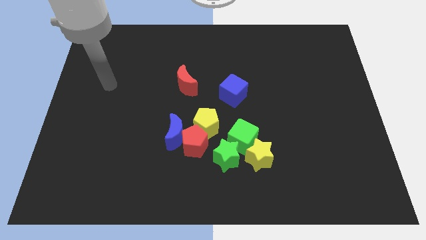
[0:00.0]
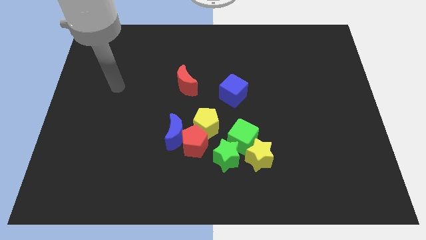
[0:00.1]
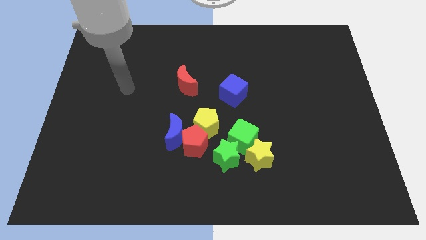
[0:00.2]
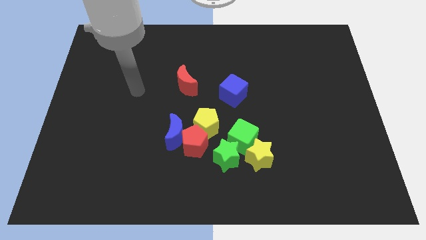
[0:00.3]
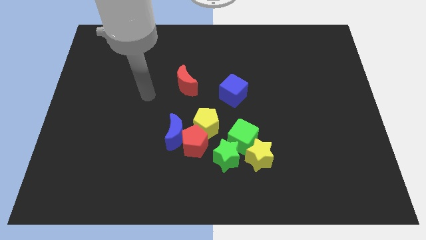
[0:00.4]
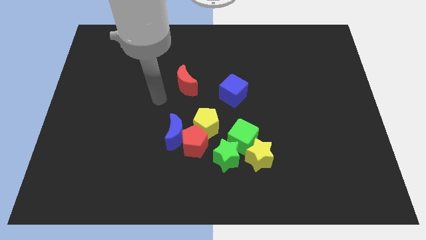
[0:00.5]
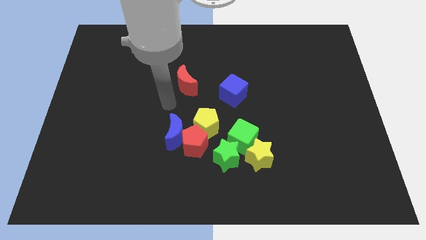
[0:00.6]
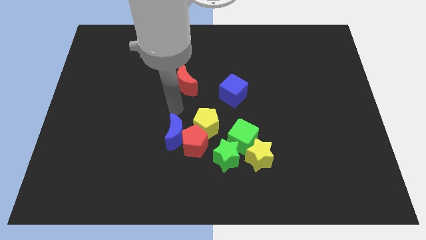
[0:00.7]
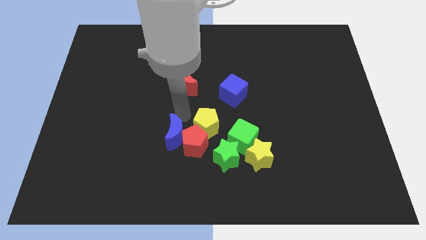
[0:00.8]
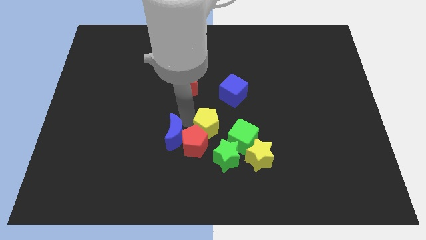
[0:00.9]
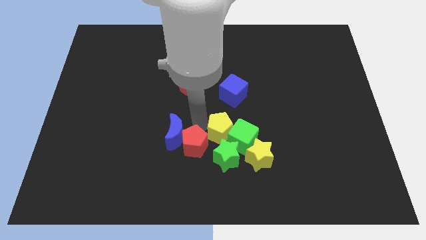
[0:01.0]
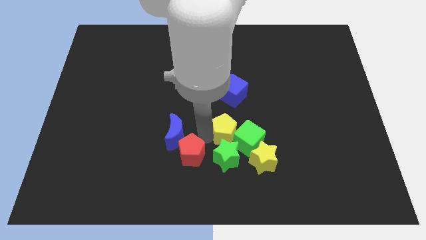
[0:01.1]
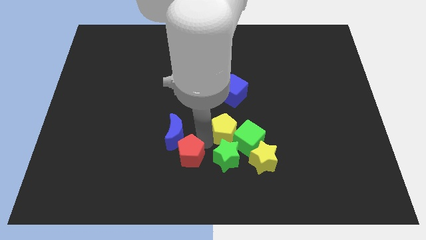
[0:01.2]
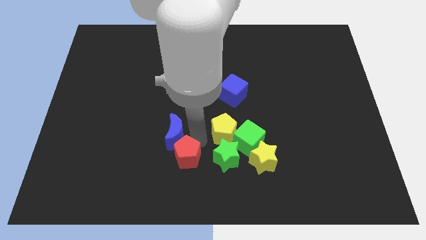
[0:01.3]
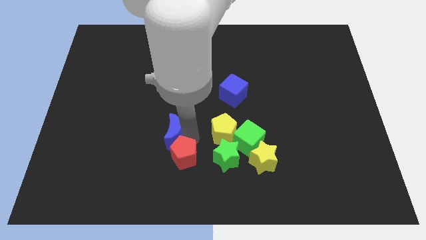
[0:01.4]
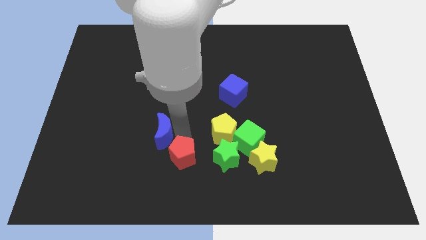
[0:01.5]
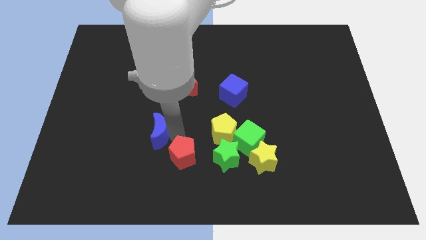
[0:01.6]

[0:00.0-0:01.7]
pull the blue moon apart from the red pentagon and yellow pentagon

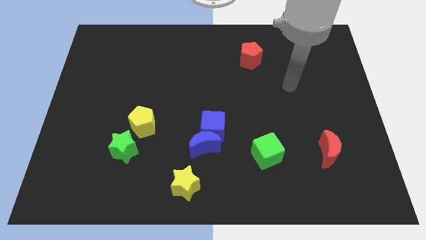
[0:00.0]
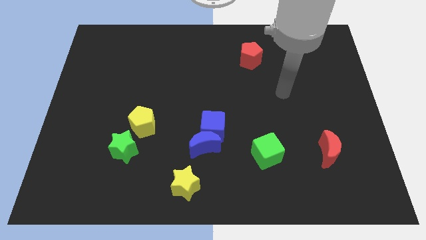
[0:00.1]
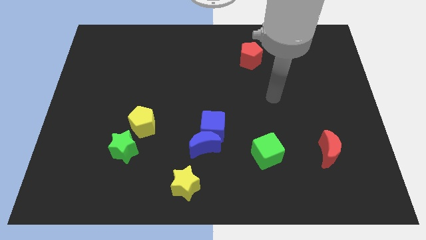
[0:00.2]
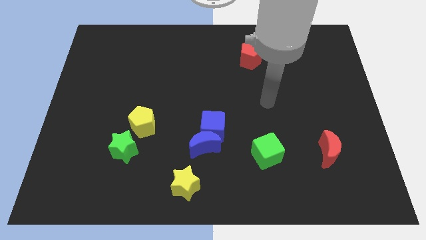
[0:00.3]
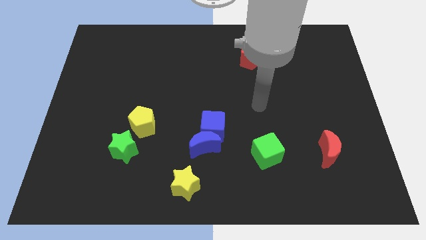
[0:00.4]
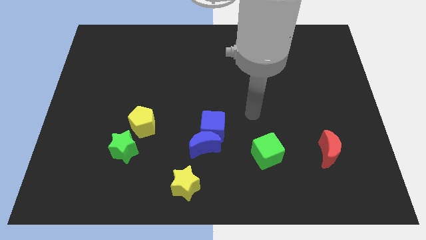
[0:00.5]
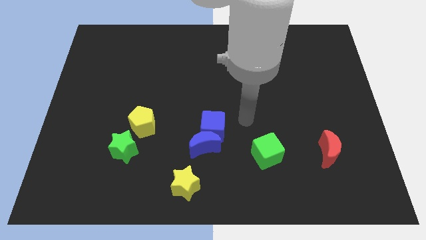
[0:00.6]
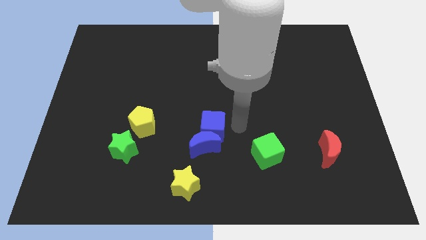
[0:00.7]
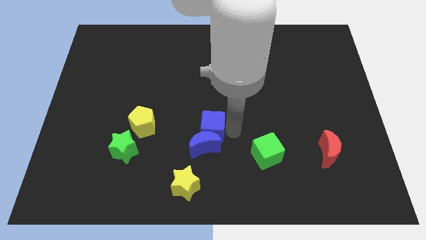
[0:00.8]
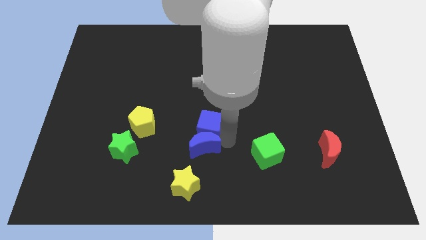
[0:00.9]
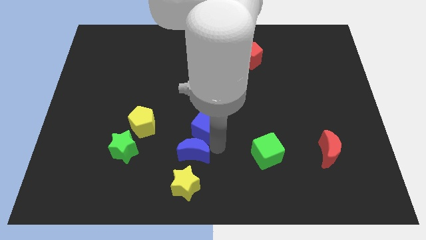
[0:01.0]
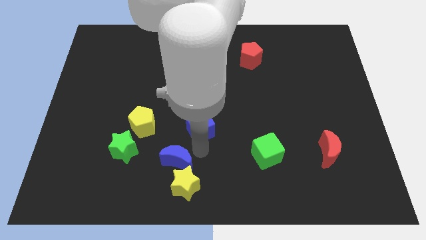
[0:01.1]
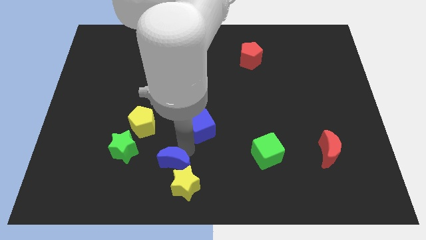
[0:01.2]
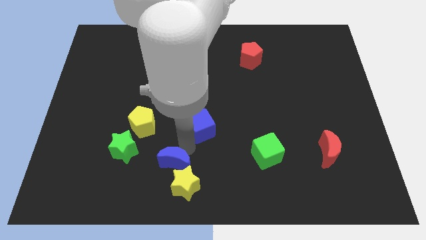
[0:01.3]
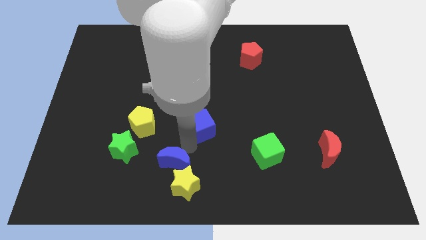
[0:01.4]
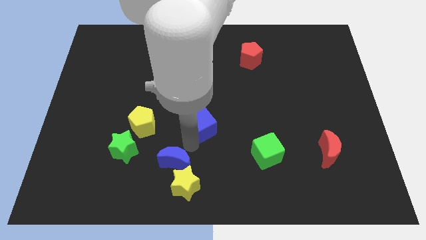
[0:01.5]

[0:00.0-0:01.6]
move the blue cube away from the blue moon

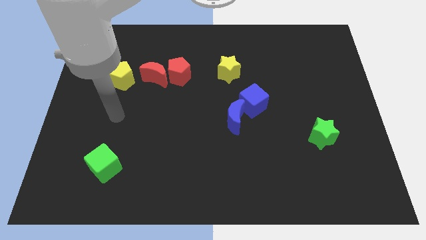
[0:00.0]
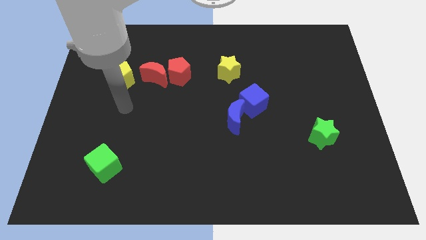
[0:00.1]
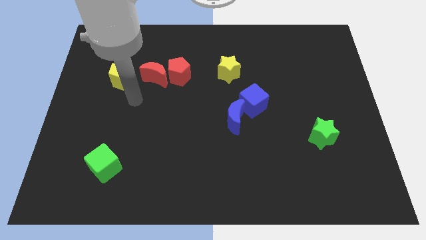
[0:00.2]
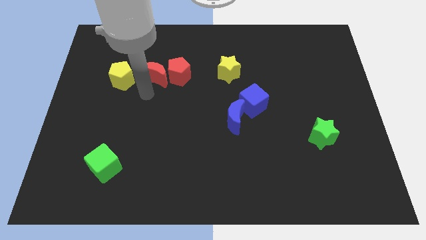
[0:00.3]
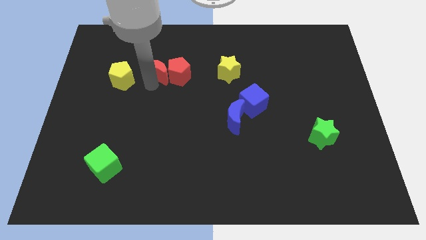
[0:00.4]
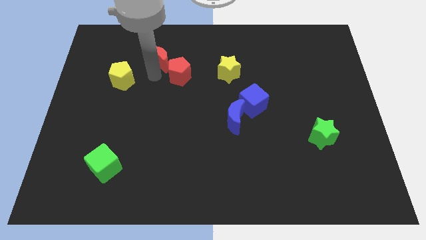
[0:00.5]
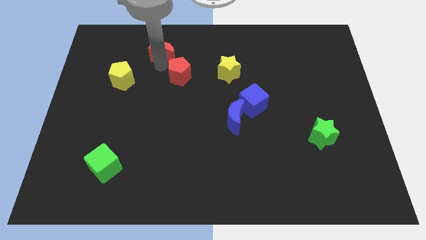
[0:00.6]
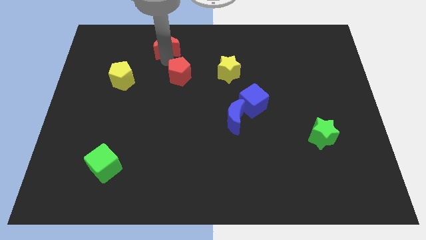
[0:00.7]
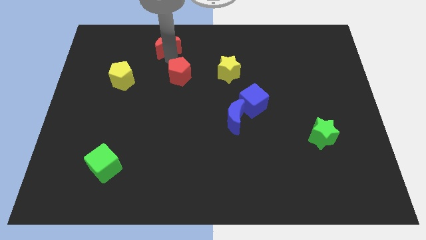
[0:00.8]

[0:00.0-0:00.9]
pull the red pentagon apart from the red moon

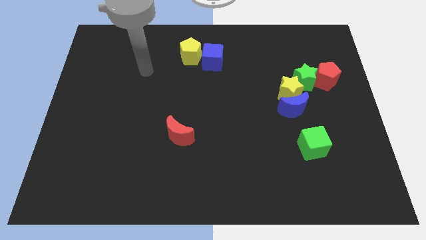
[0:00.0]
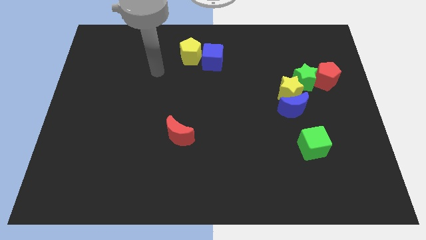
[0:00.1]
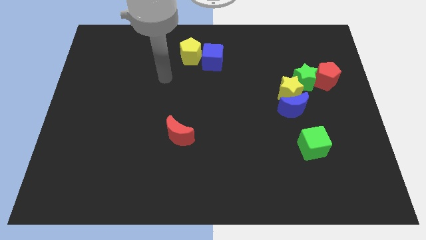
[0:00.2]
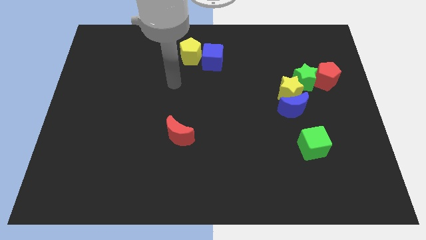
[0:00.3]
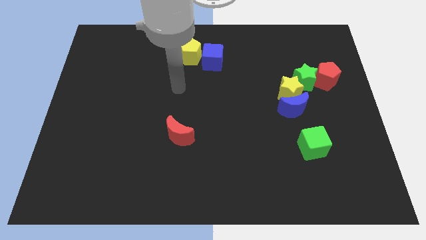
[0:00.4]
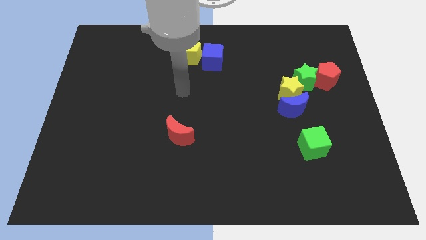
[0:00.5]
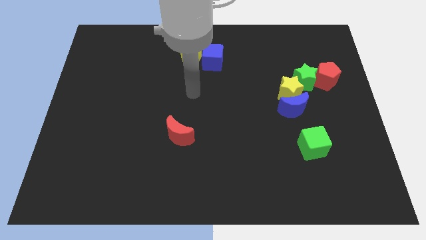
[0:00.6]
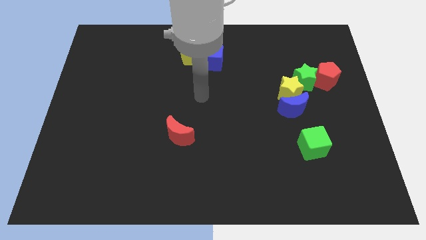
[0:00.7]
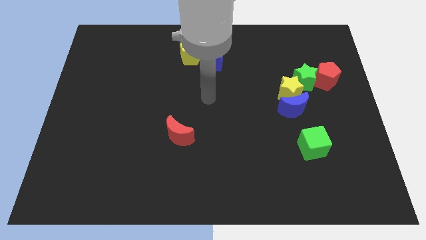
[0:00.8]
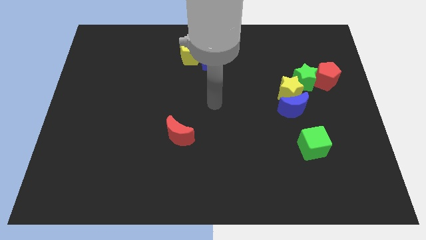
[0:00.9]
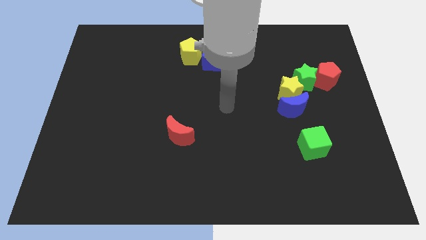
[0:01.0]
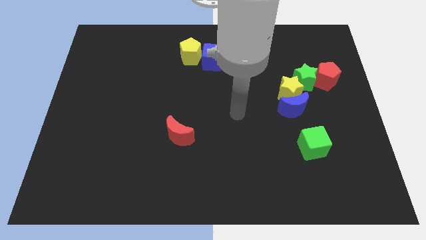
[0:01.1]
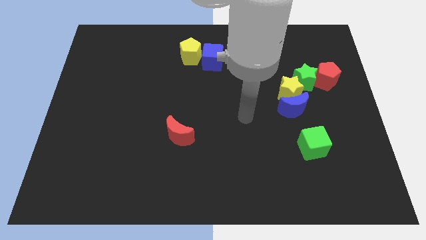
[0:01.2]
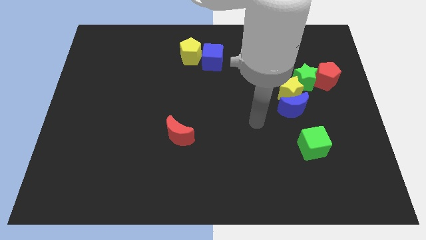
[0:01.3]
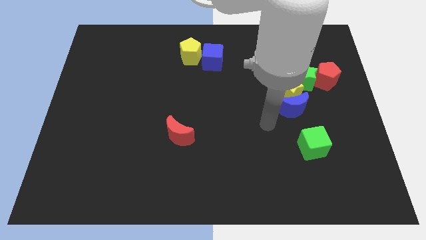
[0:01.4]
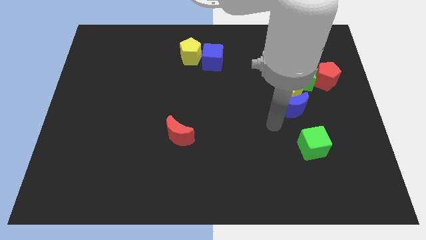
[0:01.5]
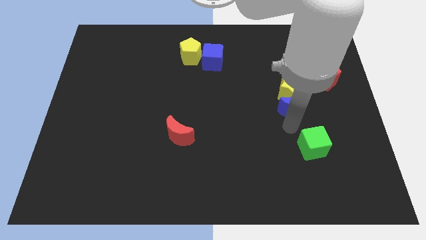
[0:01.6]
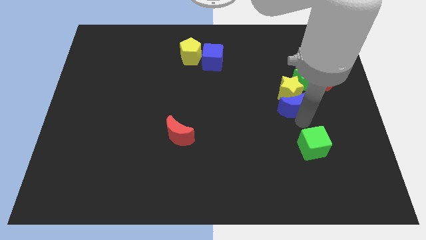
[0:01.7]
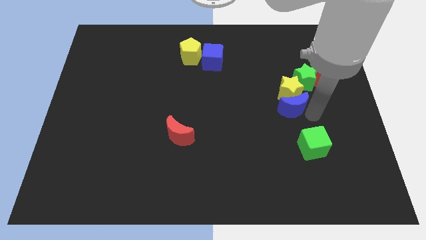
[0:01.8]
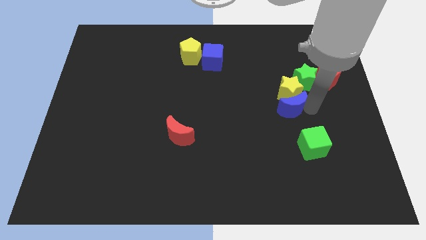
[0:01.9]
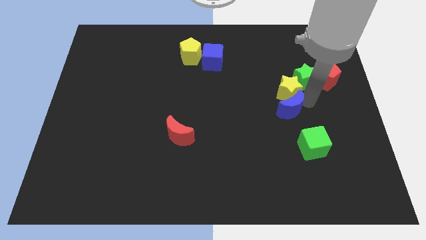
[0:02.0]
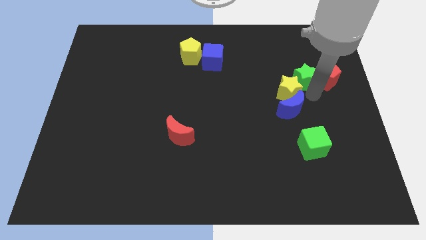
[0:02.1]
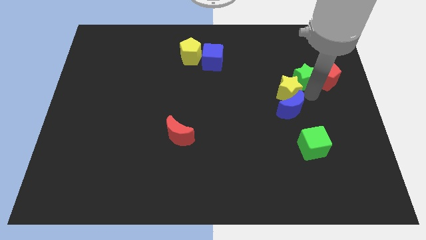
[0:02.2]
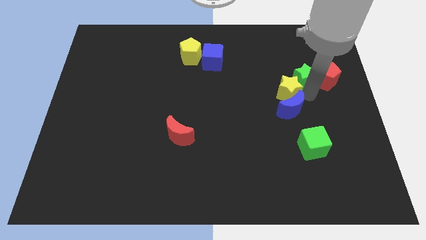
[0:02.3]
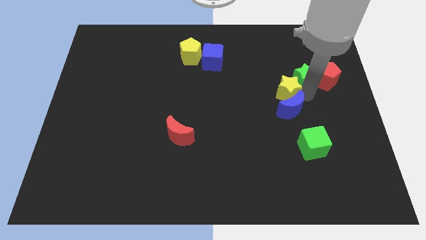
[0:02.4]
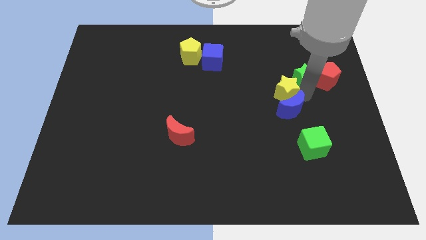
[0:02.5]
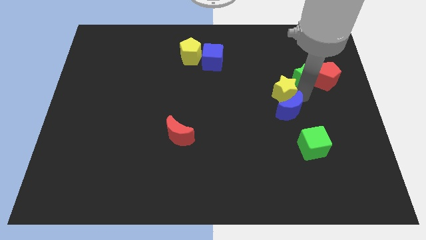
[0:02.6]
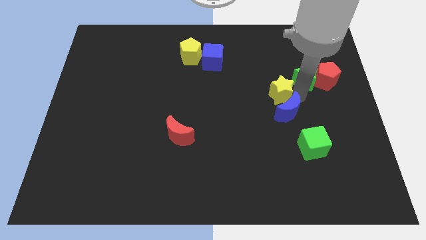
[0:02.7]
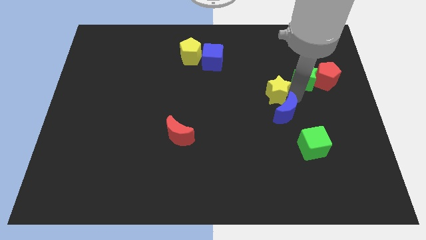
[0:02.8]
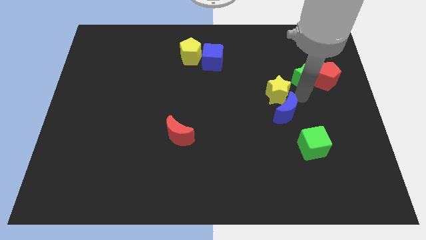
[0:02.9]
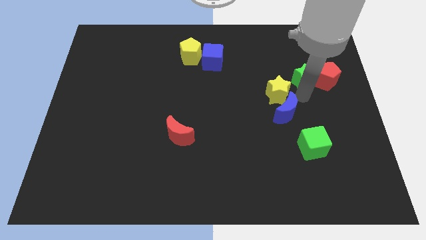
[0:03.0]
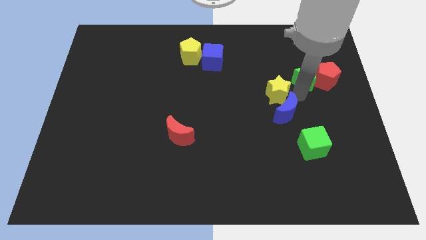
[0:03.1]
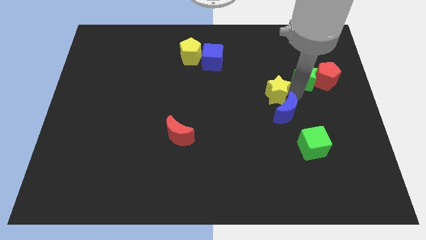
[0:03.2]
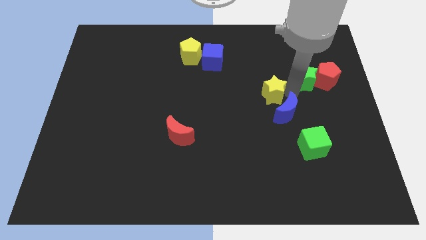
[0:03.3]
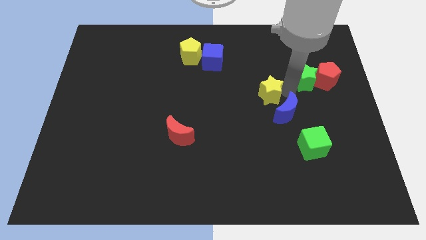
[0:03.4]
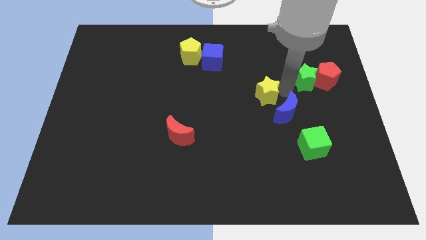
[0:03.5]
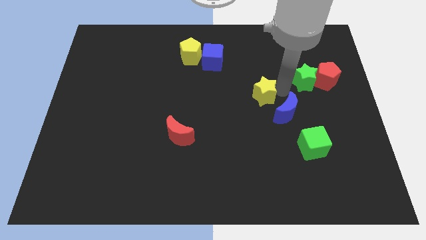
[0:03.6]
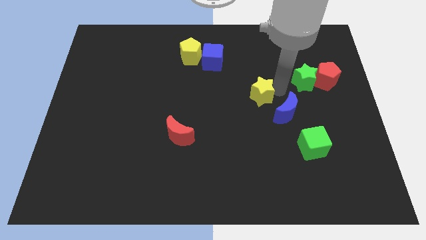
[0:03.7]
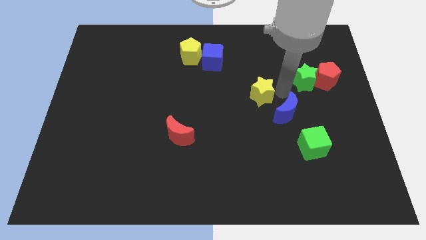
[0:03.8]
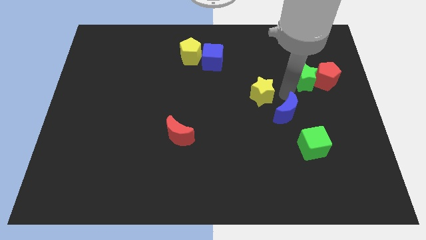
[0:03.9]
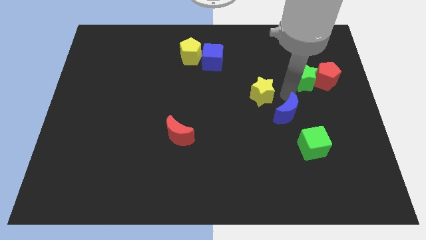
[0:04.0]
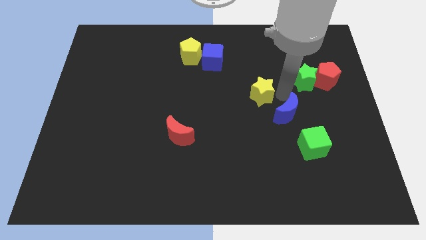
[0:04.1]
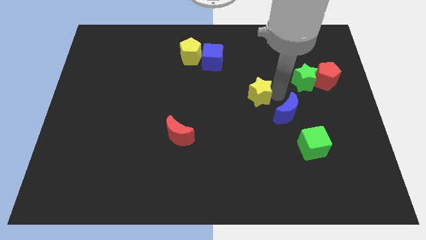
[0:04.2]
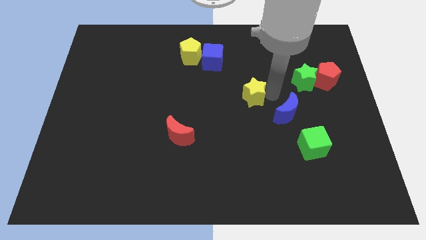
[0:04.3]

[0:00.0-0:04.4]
separate the yellow star from the blue moon and green star

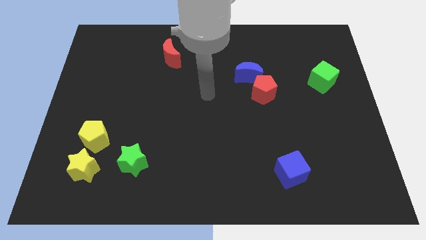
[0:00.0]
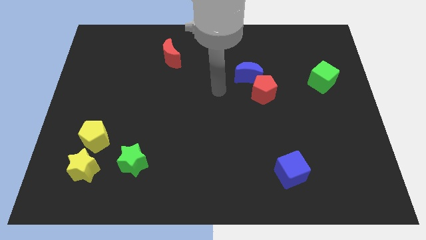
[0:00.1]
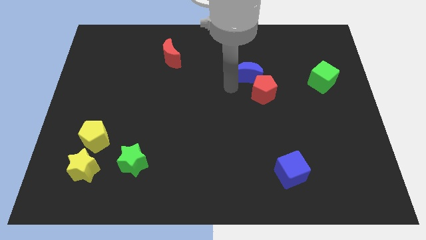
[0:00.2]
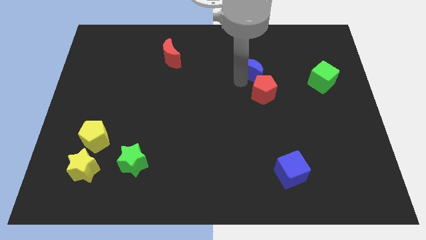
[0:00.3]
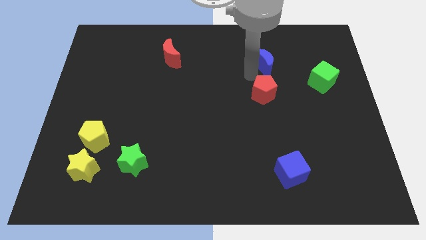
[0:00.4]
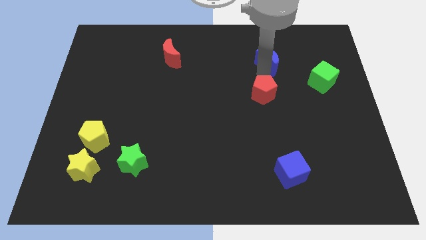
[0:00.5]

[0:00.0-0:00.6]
pull the red pentagon apart from the blue moon

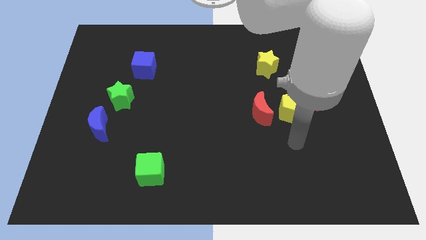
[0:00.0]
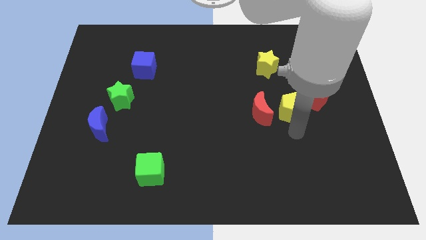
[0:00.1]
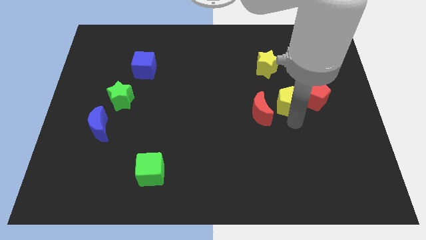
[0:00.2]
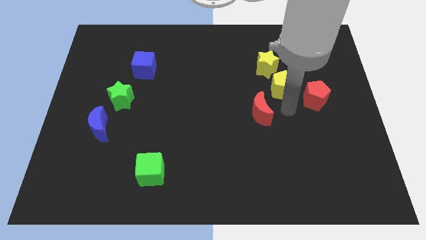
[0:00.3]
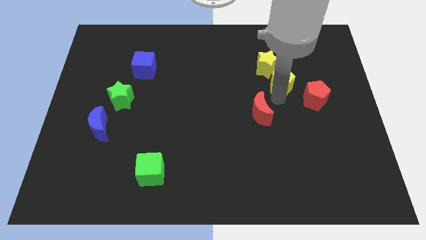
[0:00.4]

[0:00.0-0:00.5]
pull the red moon apart from the yellow pentagon
